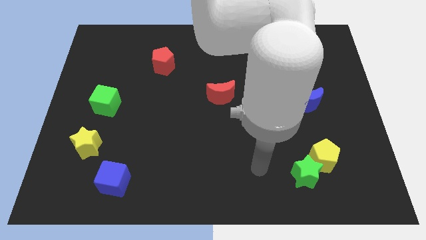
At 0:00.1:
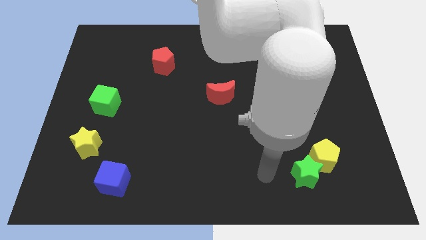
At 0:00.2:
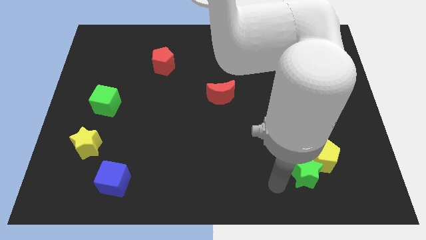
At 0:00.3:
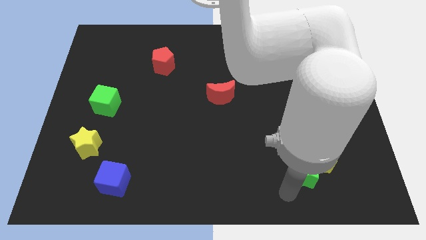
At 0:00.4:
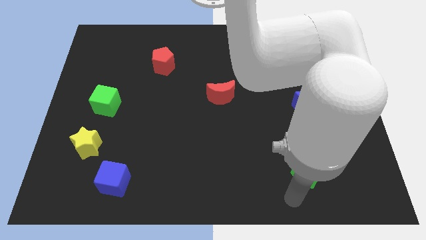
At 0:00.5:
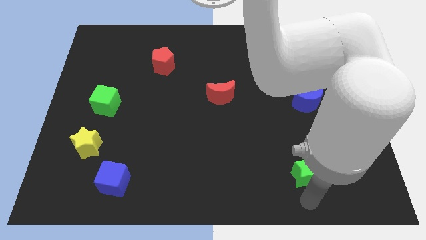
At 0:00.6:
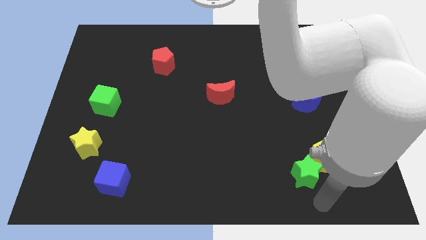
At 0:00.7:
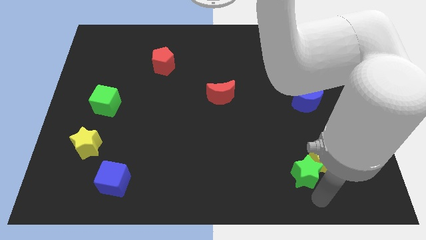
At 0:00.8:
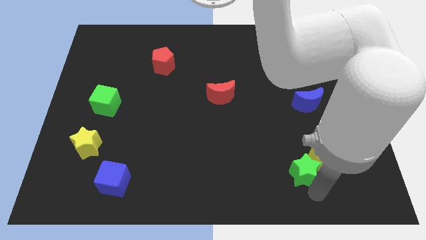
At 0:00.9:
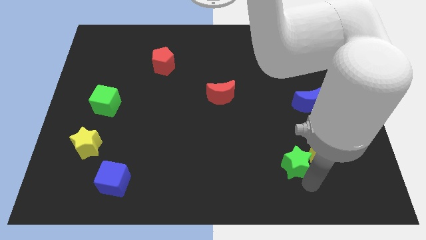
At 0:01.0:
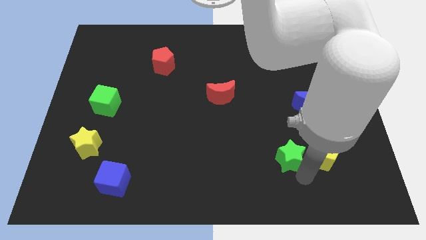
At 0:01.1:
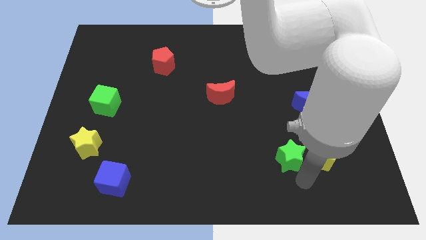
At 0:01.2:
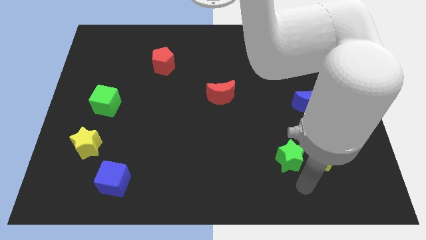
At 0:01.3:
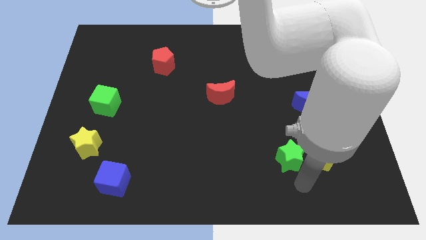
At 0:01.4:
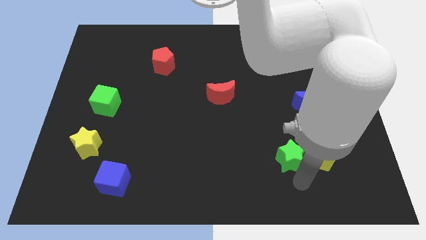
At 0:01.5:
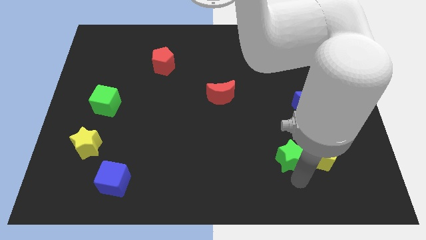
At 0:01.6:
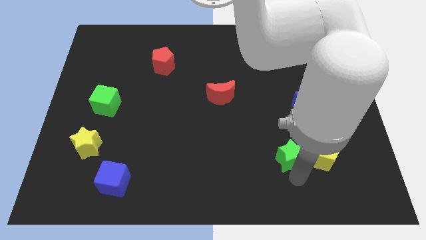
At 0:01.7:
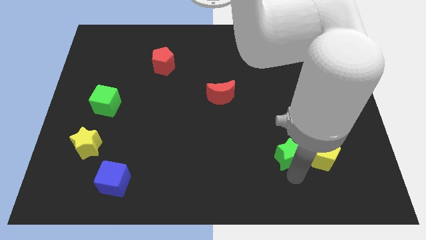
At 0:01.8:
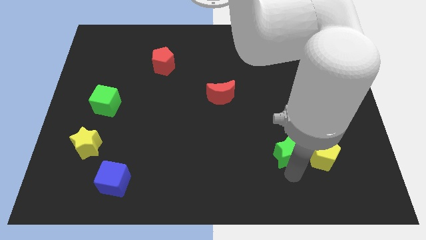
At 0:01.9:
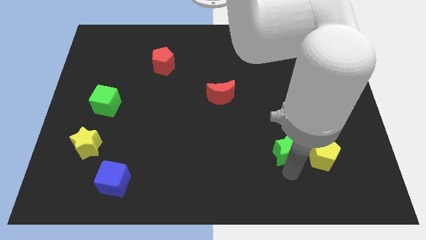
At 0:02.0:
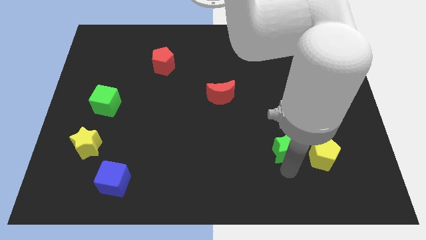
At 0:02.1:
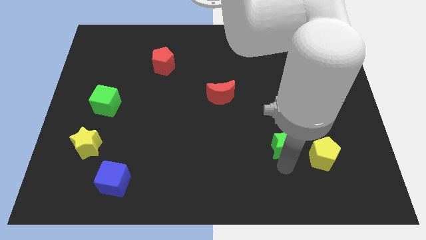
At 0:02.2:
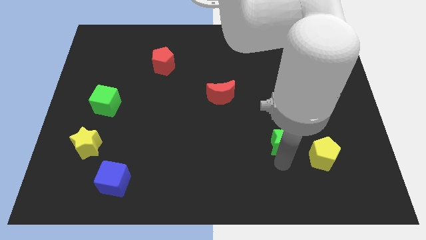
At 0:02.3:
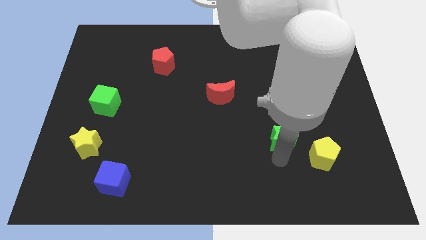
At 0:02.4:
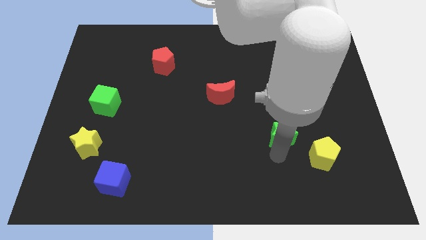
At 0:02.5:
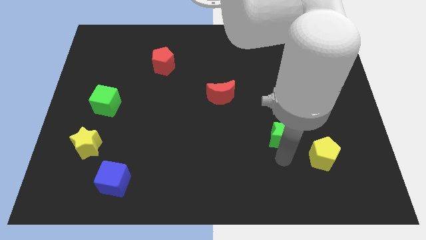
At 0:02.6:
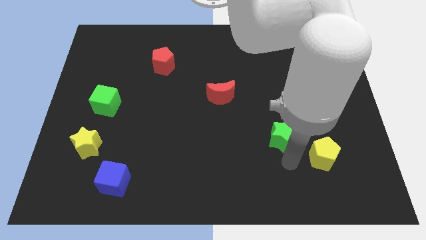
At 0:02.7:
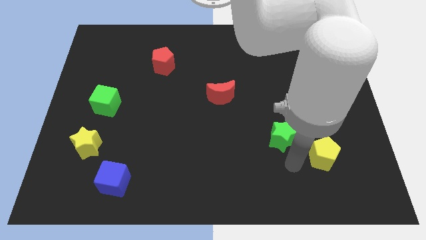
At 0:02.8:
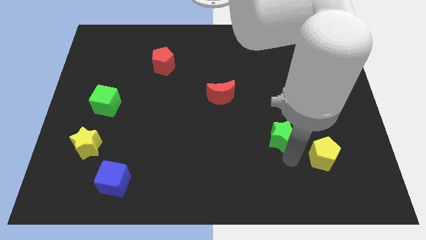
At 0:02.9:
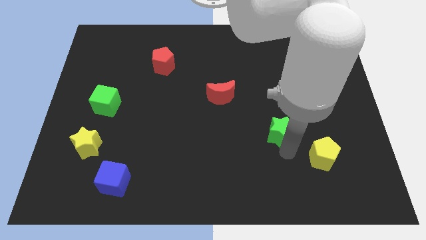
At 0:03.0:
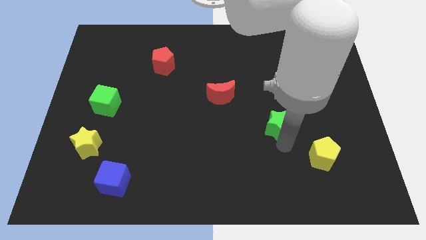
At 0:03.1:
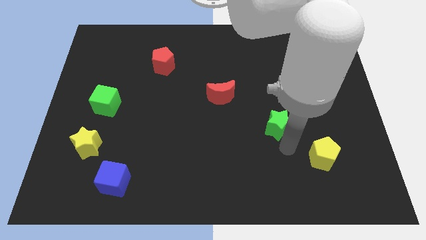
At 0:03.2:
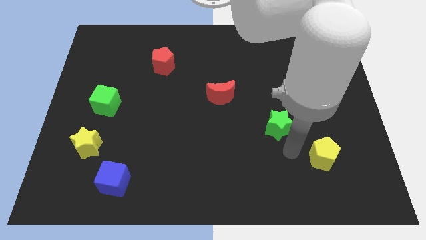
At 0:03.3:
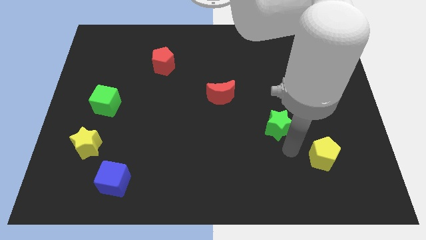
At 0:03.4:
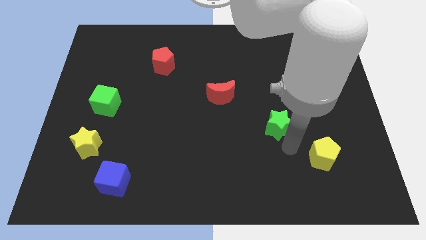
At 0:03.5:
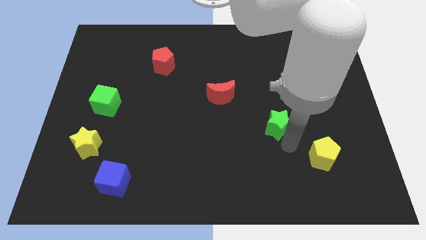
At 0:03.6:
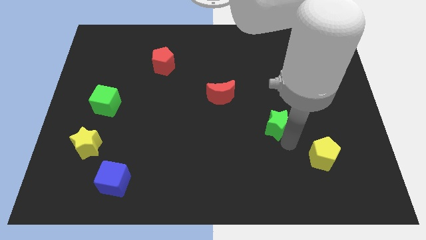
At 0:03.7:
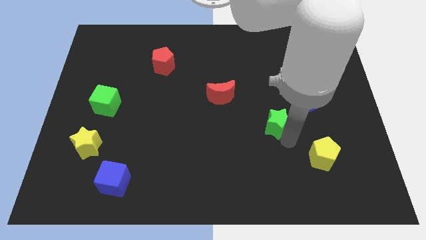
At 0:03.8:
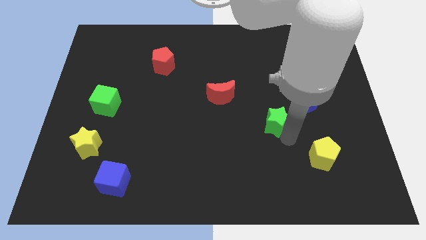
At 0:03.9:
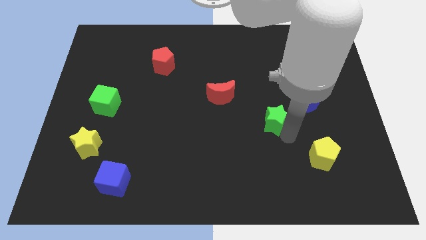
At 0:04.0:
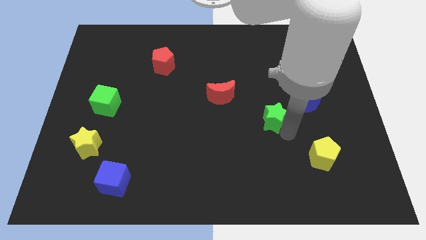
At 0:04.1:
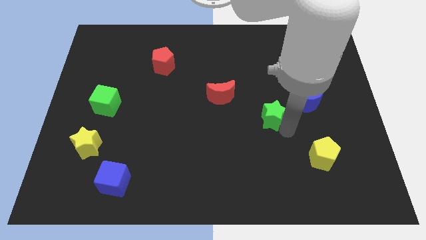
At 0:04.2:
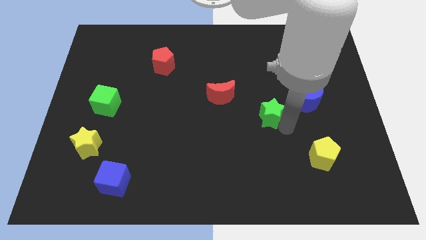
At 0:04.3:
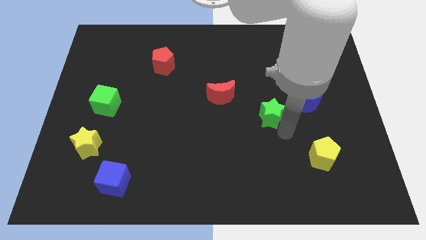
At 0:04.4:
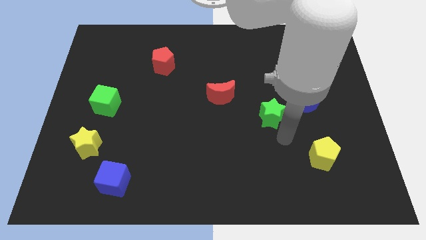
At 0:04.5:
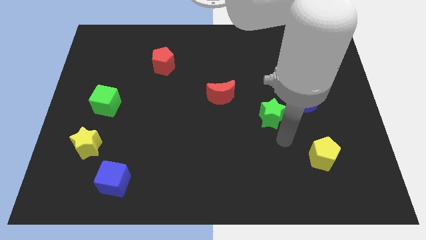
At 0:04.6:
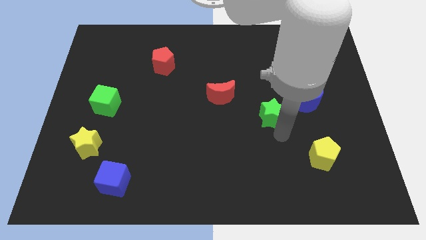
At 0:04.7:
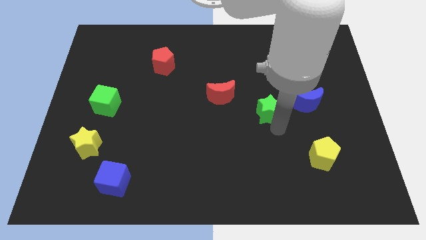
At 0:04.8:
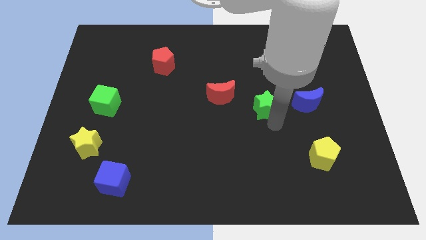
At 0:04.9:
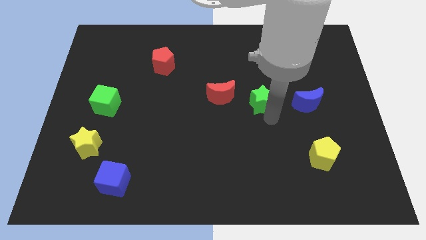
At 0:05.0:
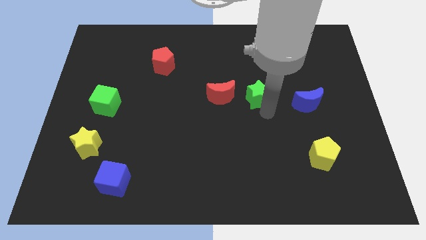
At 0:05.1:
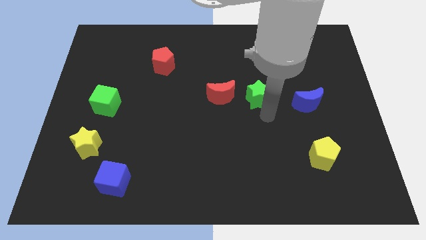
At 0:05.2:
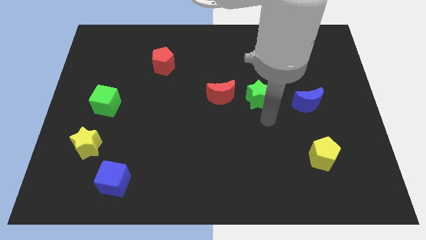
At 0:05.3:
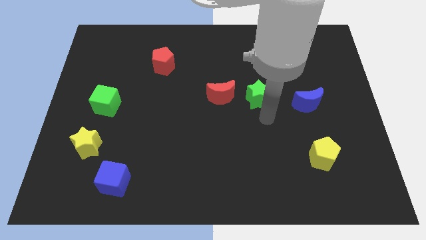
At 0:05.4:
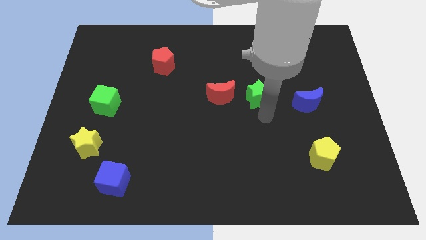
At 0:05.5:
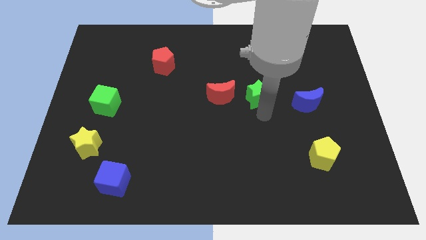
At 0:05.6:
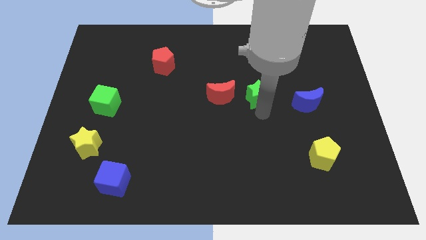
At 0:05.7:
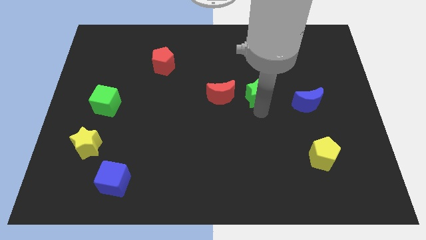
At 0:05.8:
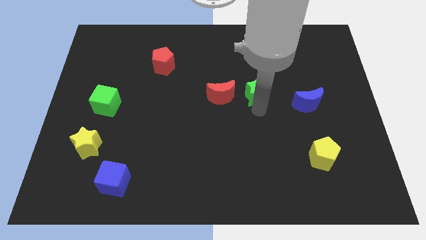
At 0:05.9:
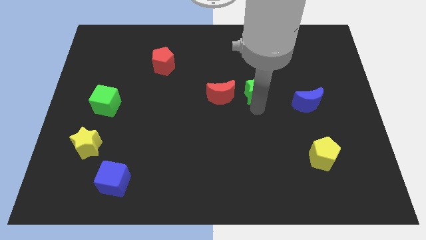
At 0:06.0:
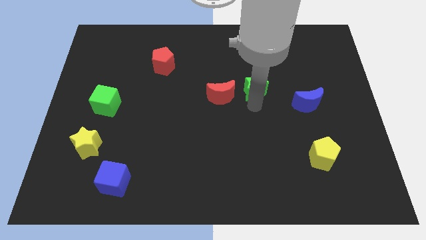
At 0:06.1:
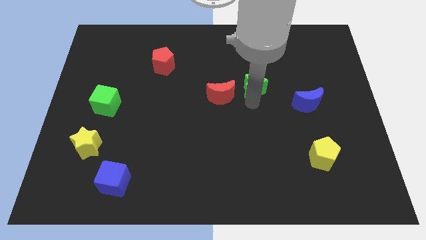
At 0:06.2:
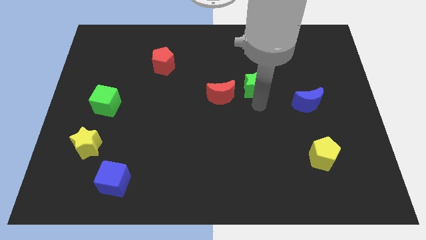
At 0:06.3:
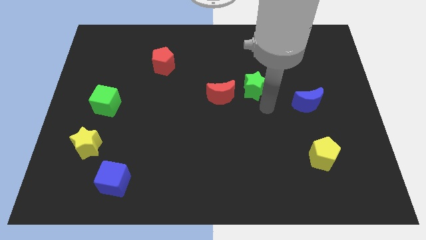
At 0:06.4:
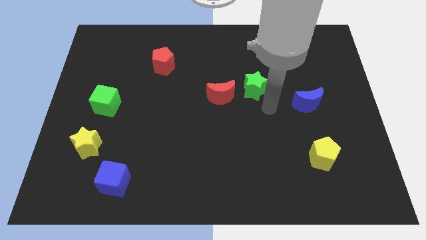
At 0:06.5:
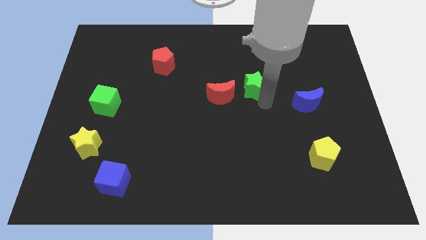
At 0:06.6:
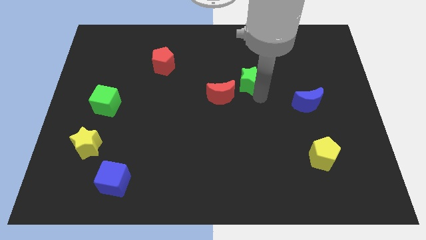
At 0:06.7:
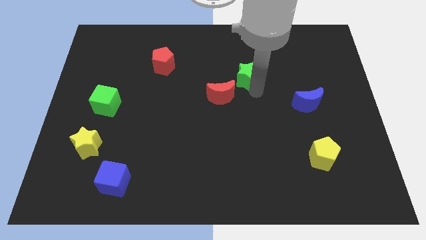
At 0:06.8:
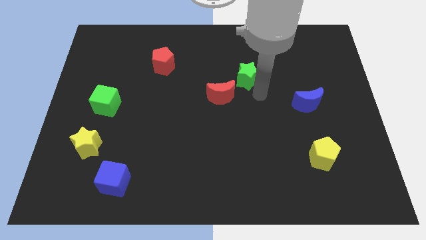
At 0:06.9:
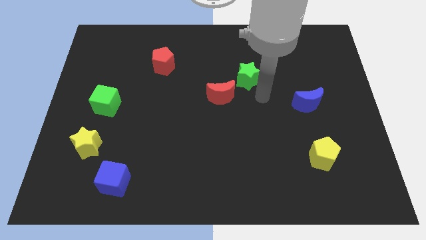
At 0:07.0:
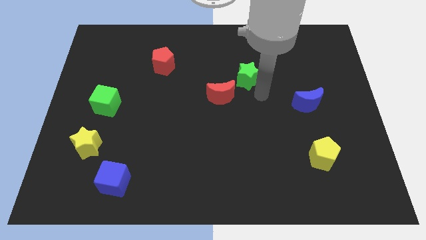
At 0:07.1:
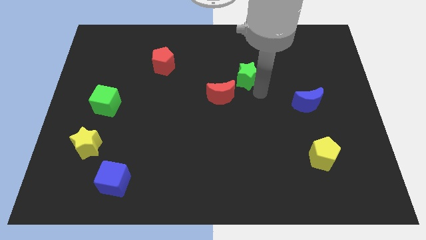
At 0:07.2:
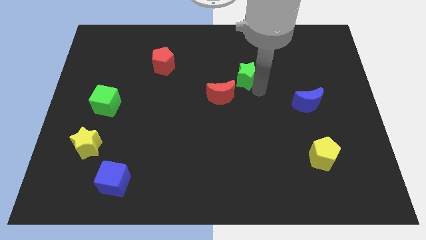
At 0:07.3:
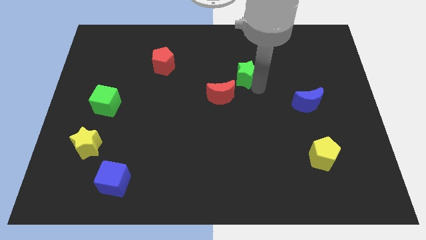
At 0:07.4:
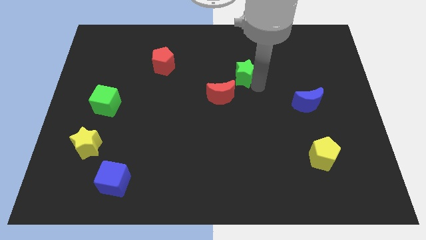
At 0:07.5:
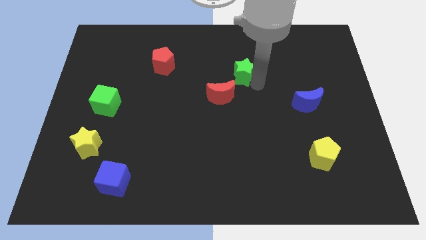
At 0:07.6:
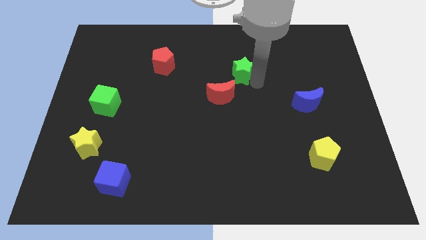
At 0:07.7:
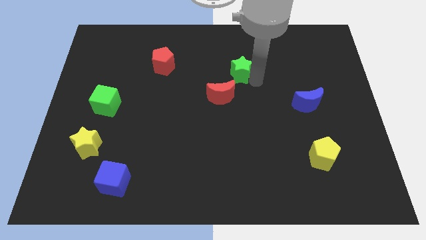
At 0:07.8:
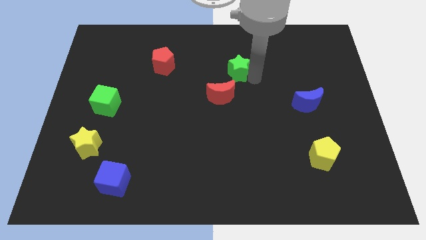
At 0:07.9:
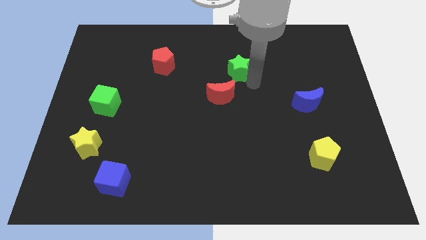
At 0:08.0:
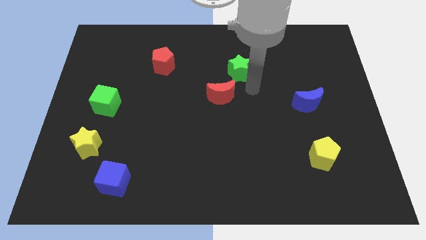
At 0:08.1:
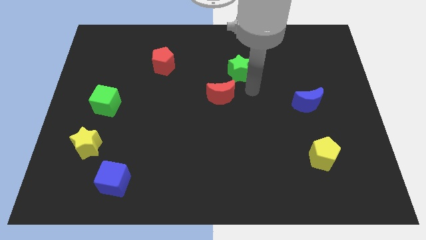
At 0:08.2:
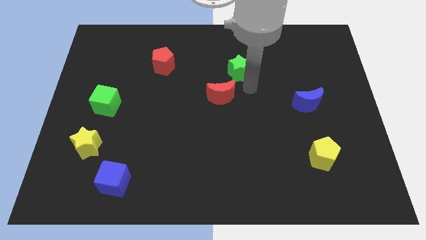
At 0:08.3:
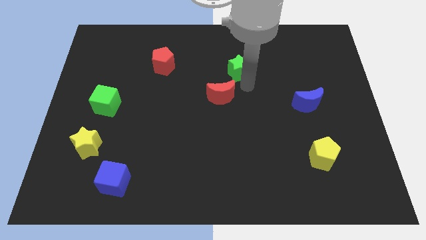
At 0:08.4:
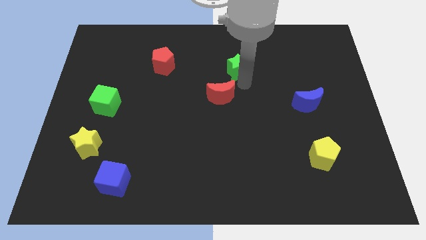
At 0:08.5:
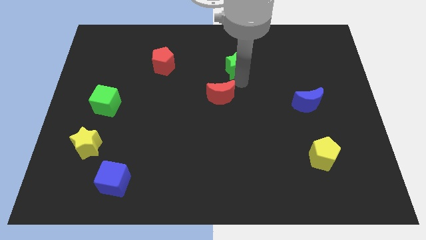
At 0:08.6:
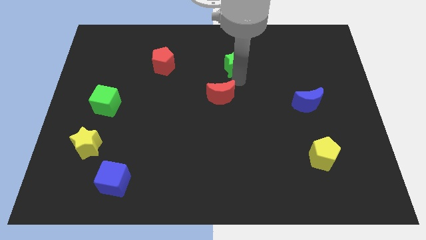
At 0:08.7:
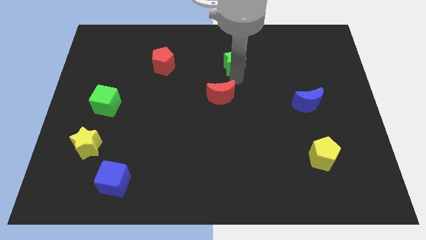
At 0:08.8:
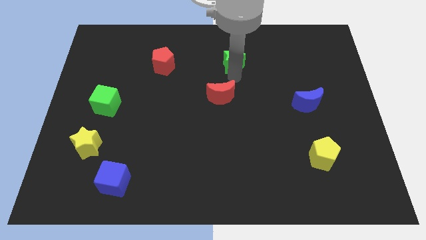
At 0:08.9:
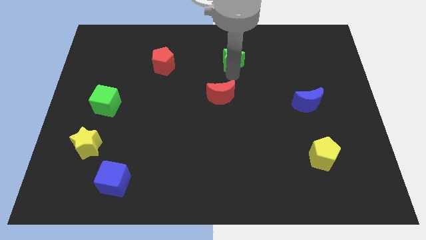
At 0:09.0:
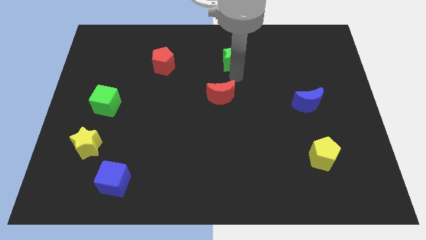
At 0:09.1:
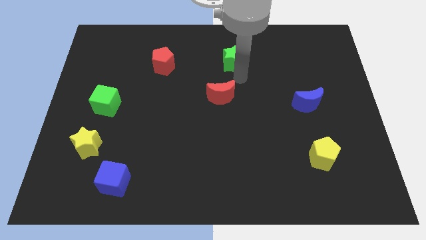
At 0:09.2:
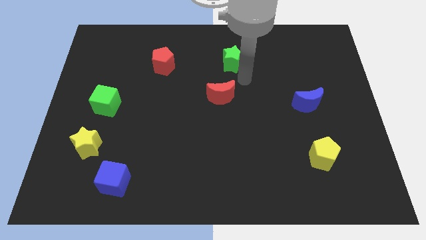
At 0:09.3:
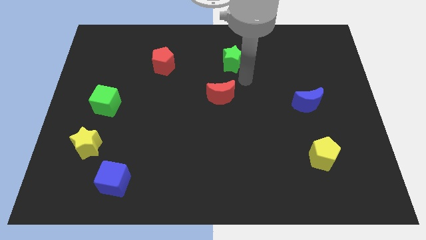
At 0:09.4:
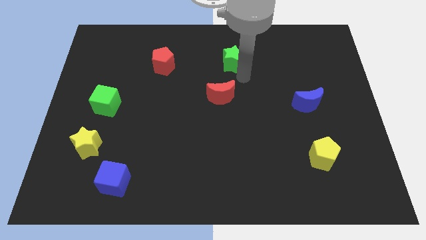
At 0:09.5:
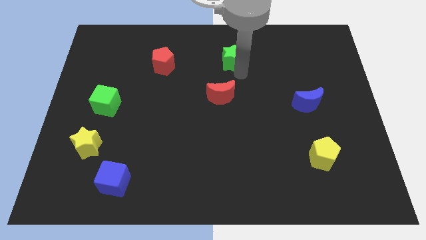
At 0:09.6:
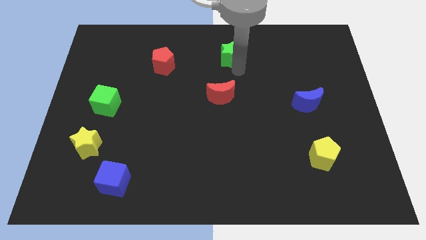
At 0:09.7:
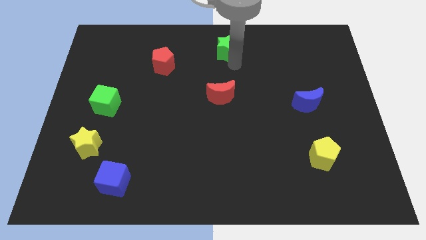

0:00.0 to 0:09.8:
slide the green star to the top
